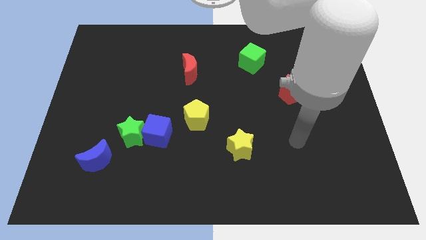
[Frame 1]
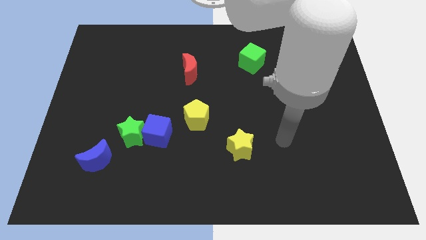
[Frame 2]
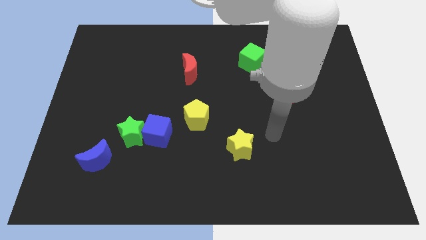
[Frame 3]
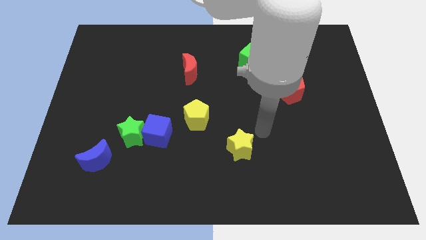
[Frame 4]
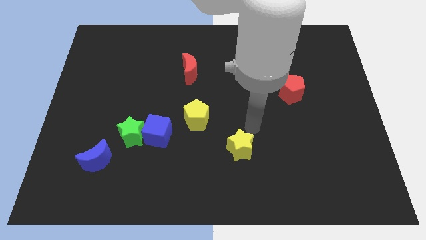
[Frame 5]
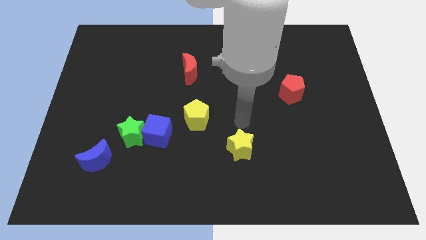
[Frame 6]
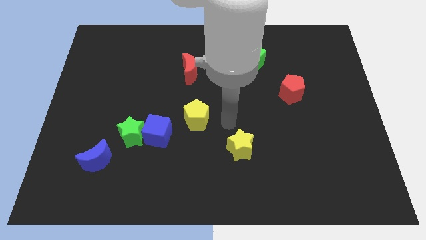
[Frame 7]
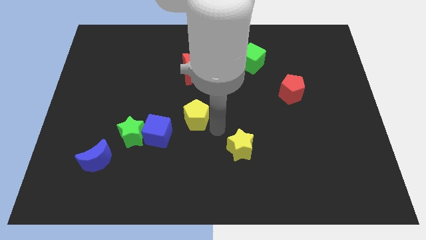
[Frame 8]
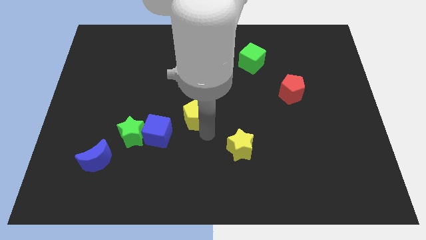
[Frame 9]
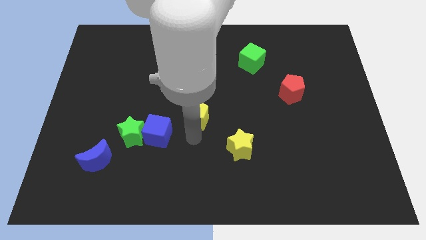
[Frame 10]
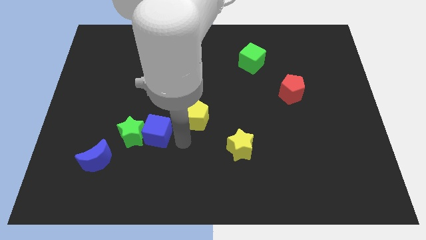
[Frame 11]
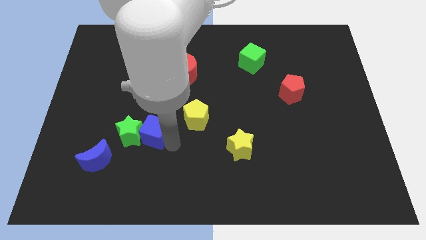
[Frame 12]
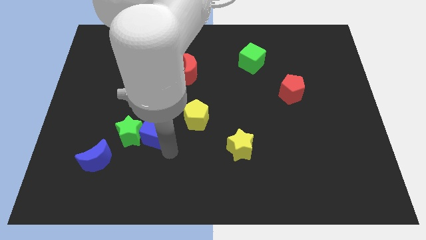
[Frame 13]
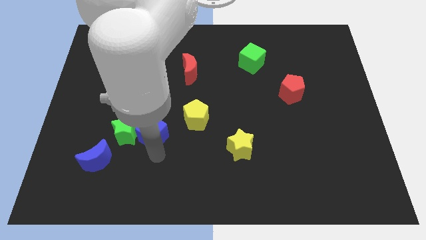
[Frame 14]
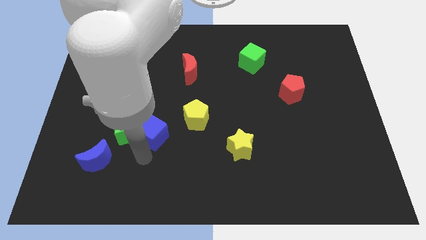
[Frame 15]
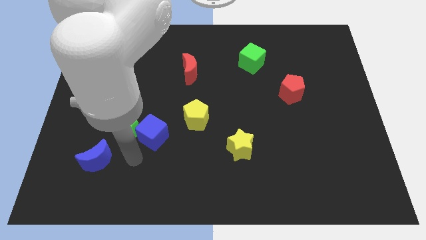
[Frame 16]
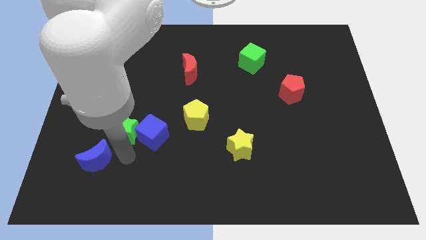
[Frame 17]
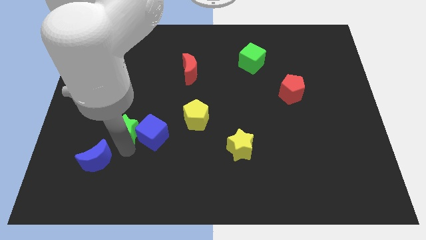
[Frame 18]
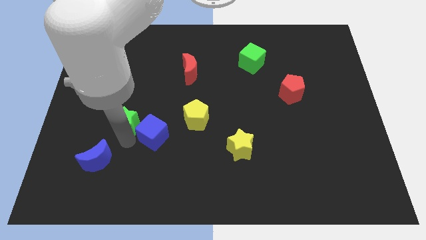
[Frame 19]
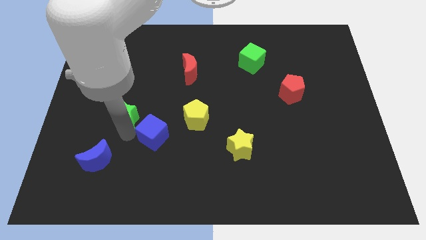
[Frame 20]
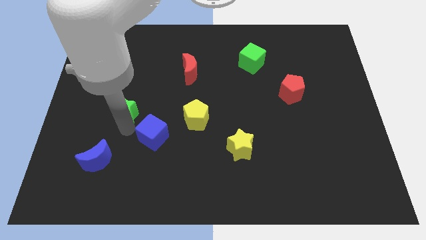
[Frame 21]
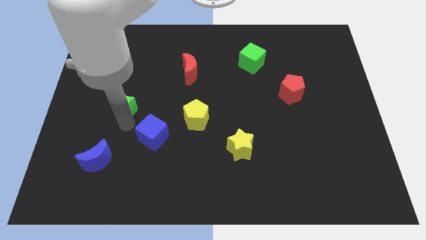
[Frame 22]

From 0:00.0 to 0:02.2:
pull the green star apart from the blue cube and blue moon

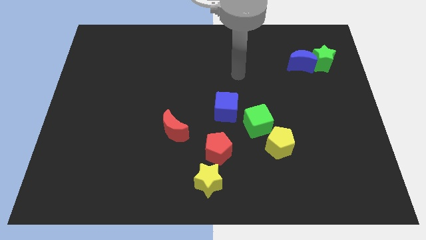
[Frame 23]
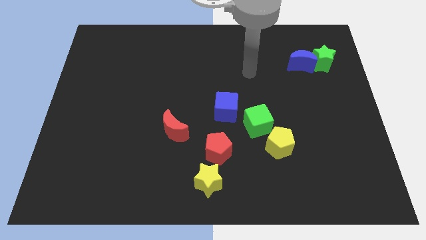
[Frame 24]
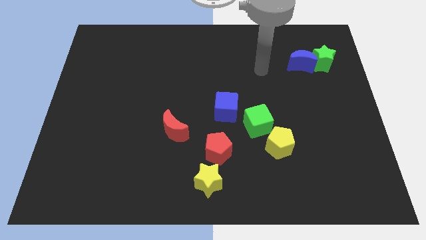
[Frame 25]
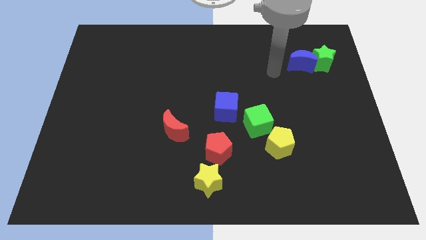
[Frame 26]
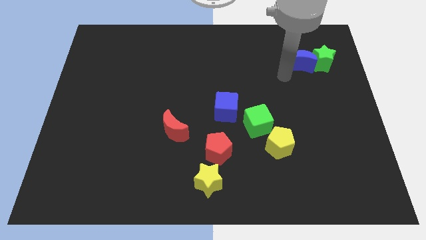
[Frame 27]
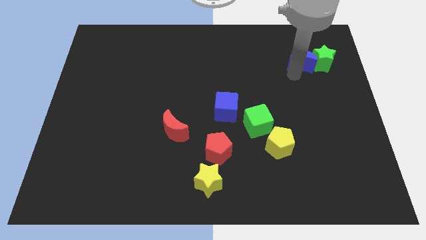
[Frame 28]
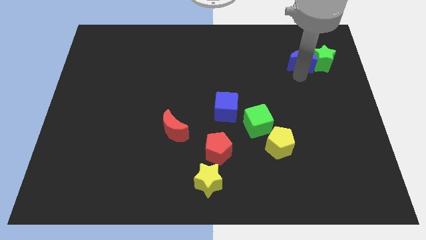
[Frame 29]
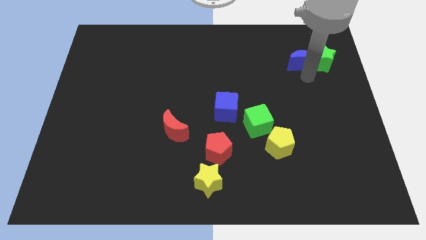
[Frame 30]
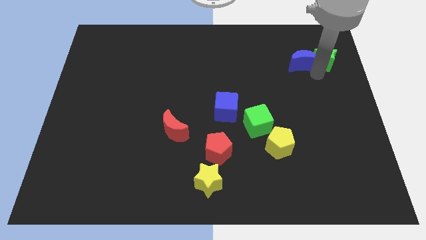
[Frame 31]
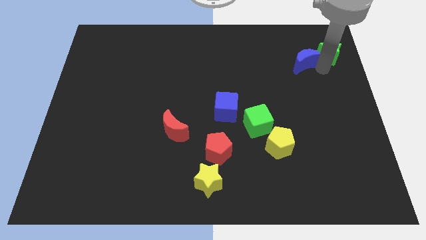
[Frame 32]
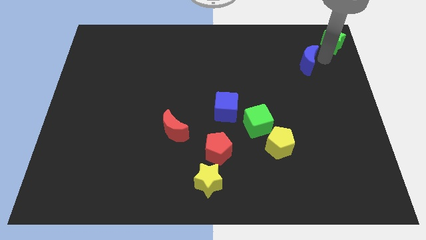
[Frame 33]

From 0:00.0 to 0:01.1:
separate the blue moon from the green star

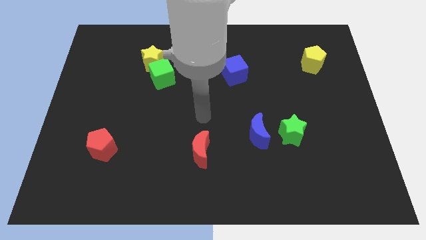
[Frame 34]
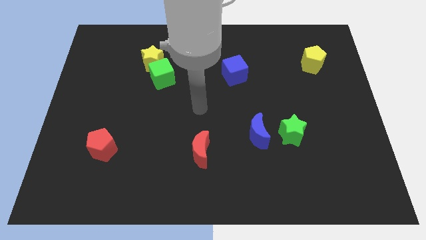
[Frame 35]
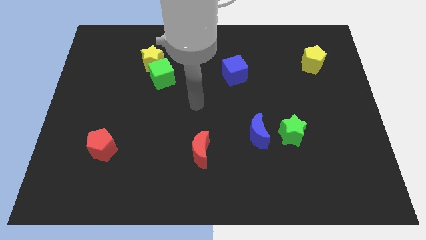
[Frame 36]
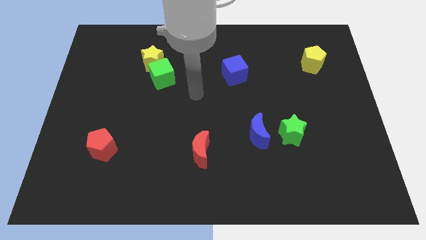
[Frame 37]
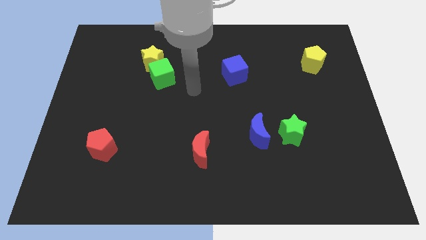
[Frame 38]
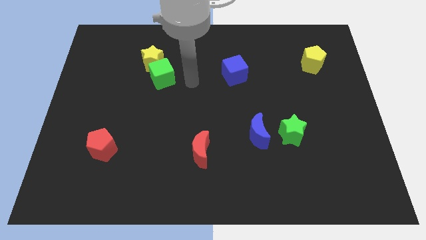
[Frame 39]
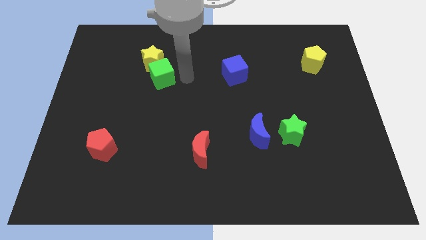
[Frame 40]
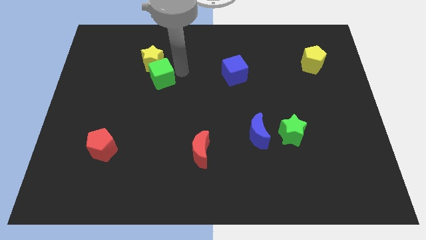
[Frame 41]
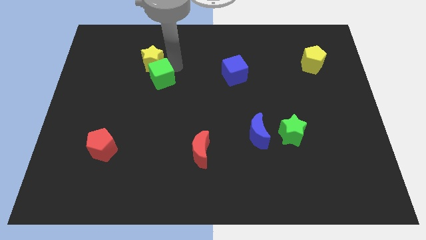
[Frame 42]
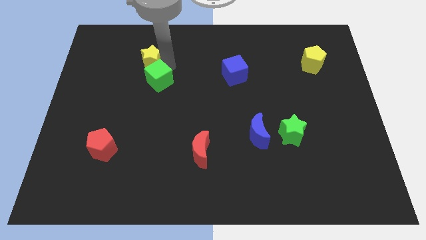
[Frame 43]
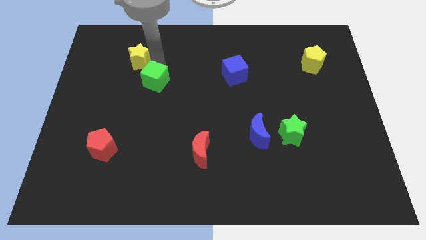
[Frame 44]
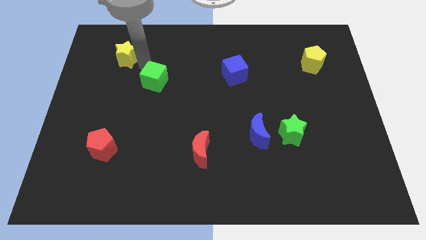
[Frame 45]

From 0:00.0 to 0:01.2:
move the green cube away from the yellow star

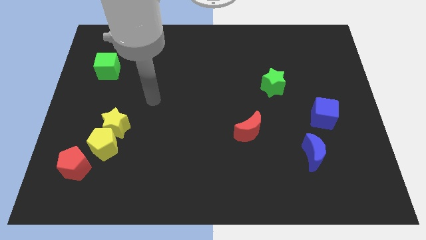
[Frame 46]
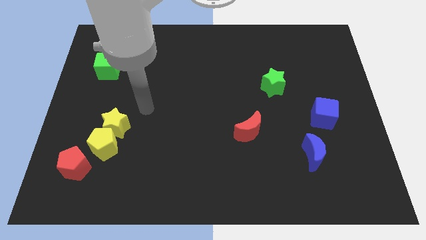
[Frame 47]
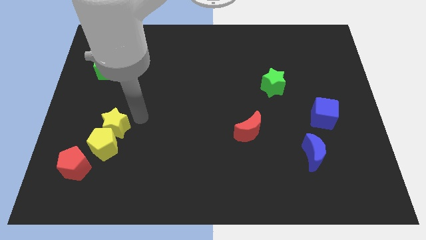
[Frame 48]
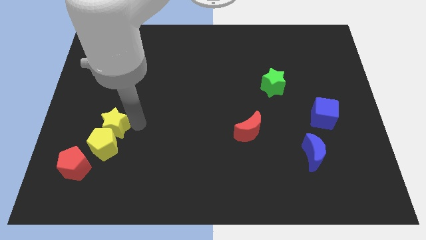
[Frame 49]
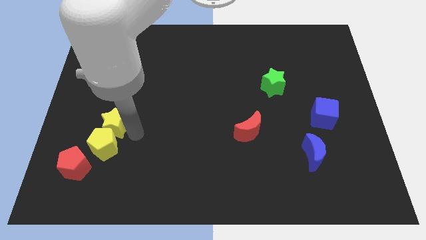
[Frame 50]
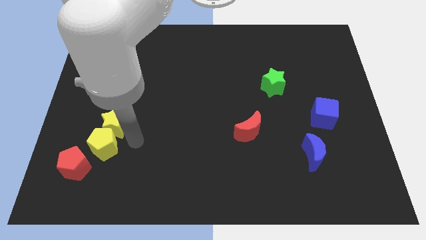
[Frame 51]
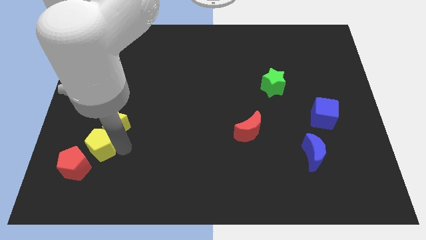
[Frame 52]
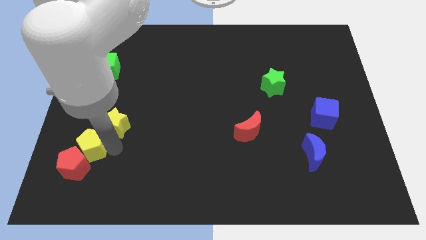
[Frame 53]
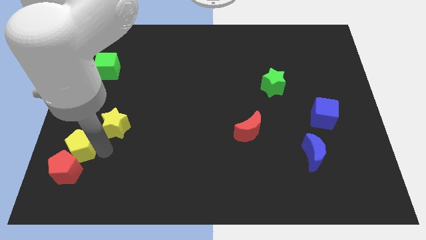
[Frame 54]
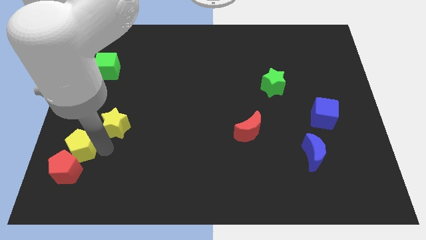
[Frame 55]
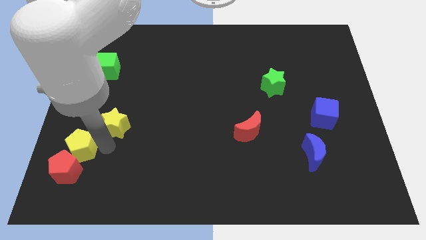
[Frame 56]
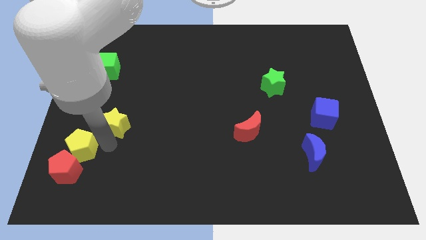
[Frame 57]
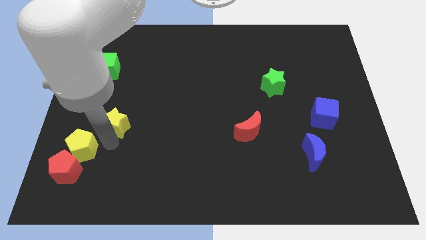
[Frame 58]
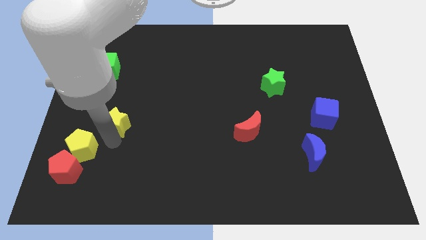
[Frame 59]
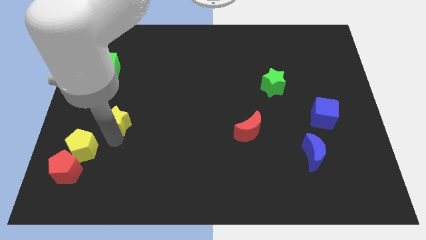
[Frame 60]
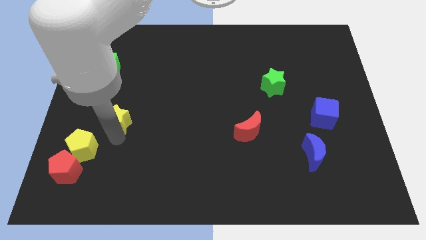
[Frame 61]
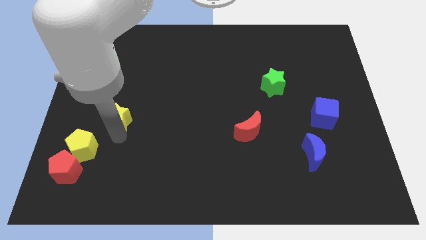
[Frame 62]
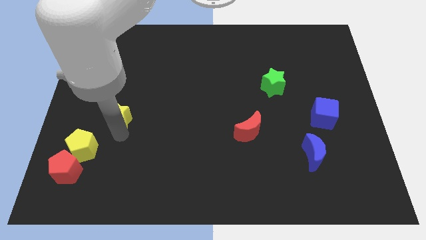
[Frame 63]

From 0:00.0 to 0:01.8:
pull the yellow star apart from the yellow pentagon

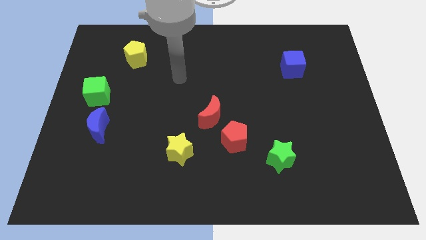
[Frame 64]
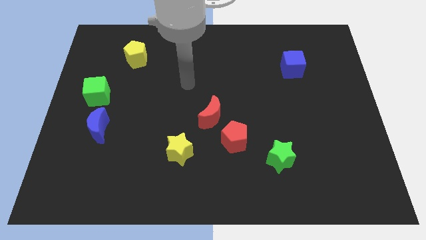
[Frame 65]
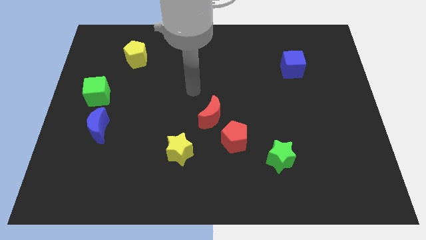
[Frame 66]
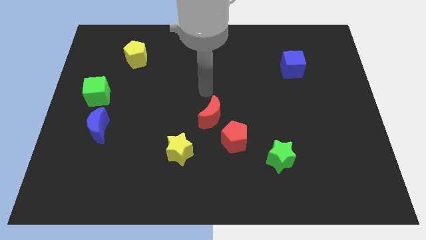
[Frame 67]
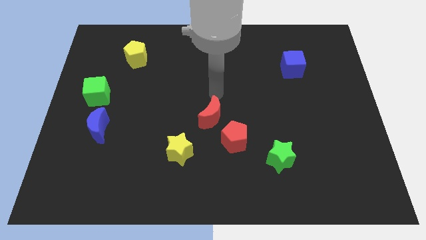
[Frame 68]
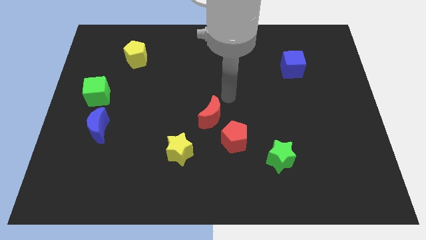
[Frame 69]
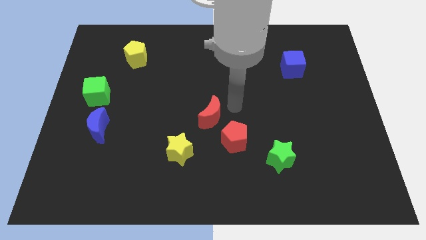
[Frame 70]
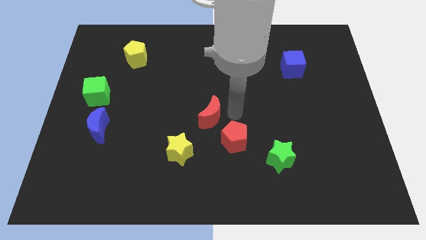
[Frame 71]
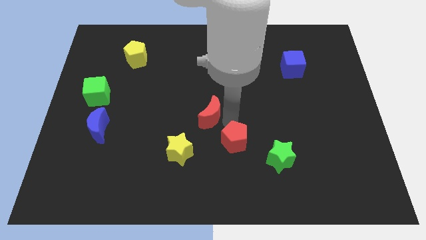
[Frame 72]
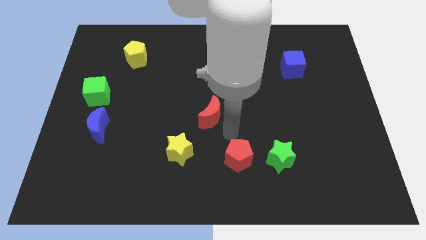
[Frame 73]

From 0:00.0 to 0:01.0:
separate the red moon from the red pentagon

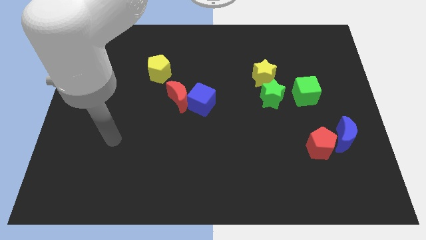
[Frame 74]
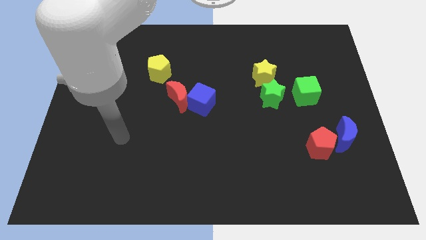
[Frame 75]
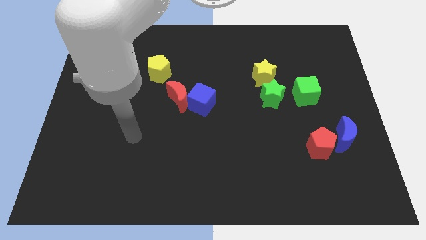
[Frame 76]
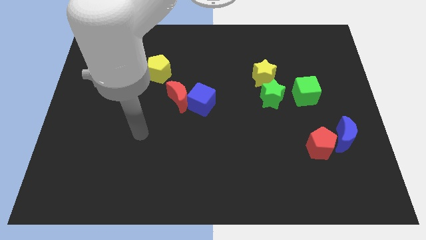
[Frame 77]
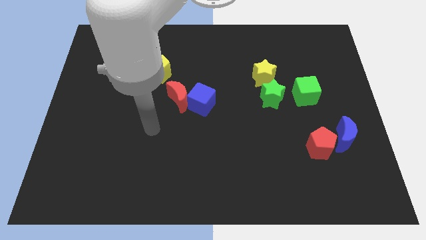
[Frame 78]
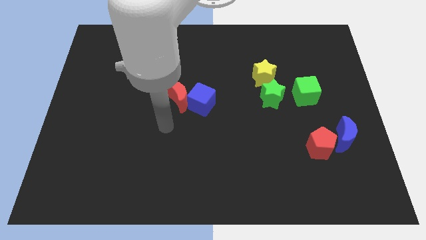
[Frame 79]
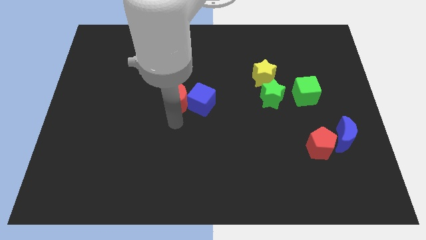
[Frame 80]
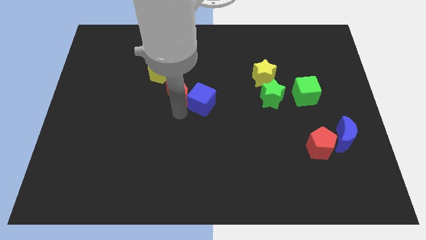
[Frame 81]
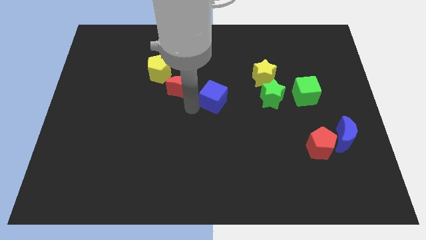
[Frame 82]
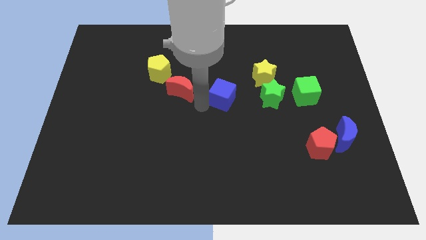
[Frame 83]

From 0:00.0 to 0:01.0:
separate the red moon from the blue cube

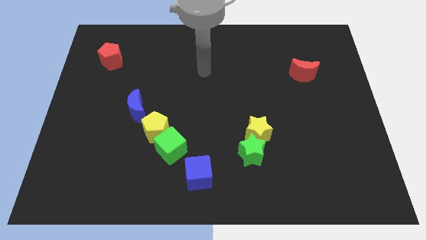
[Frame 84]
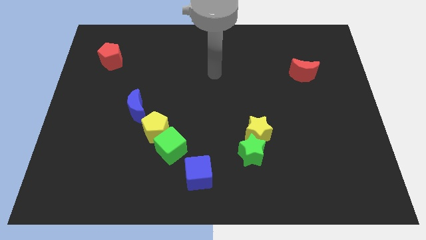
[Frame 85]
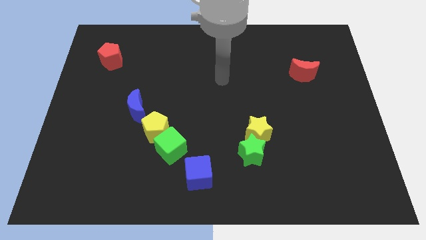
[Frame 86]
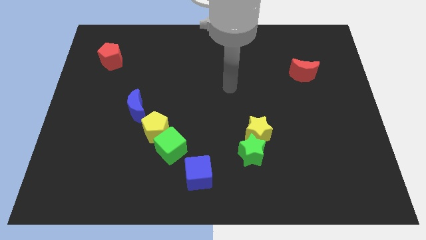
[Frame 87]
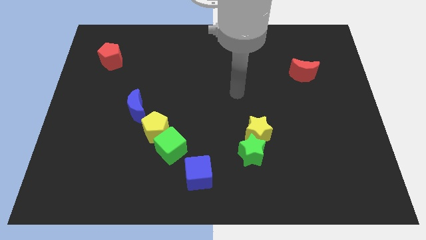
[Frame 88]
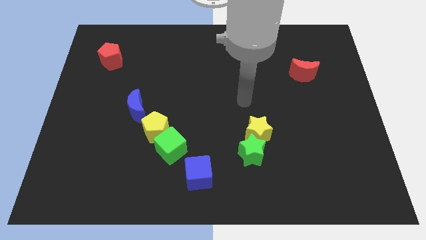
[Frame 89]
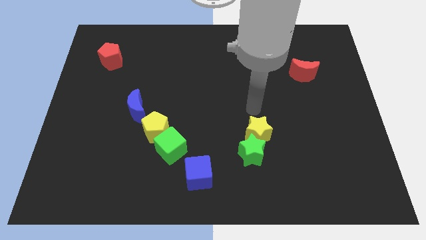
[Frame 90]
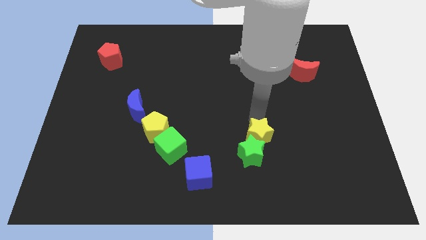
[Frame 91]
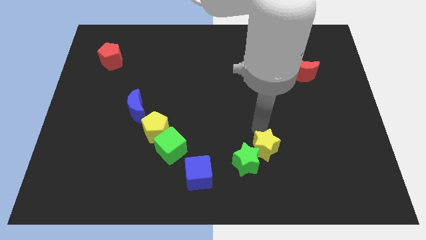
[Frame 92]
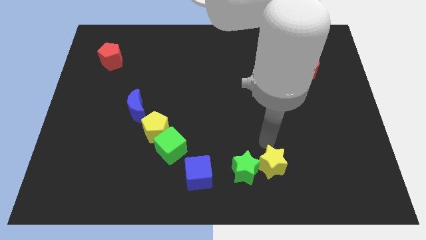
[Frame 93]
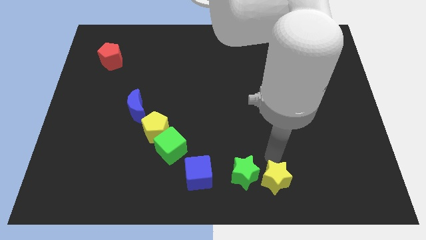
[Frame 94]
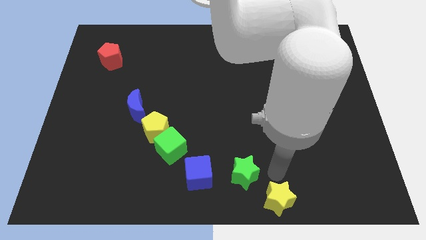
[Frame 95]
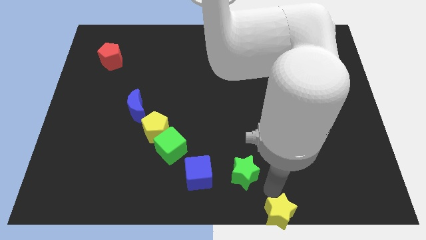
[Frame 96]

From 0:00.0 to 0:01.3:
separate the green star from the yellow star
